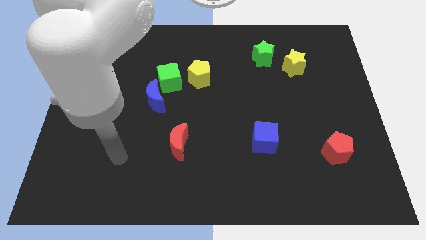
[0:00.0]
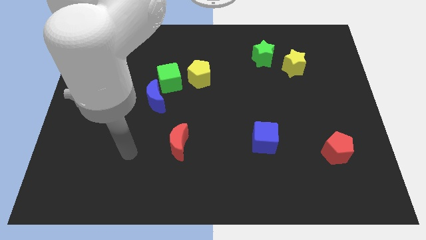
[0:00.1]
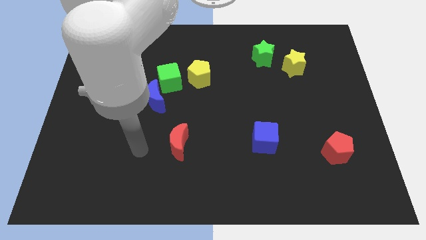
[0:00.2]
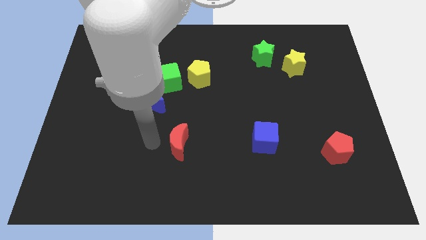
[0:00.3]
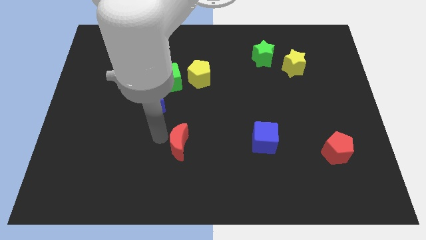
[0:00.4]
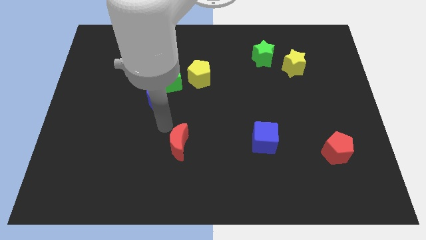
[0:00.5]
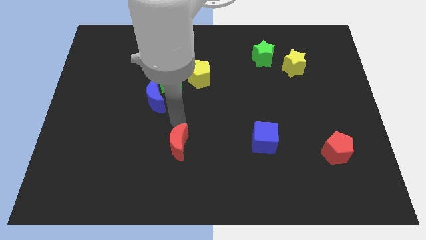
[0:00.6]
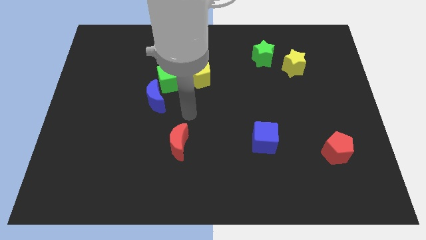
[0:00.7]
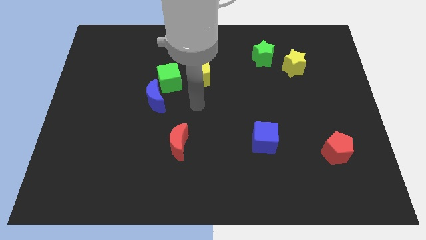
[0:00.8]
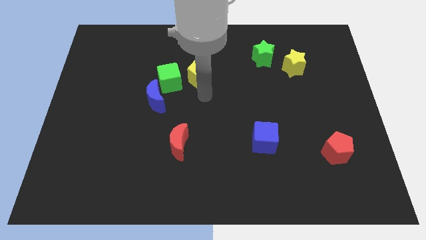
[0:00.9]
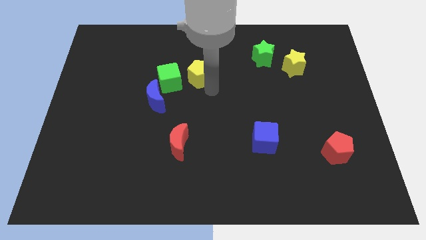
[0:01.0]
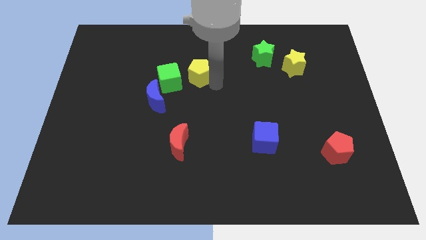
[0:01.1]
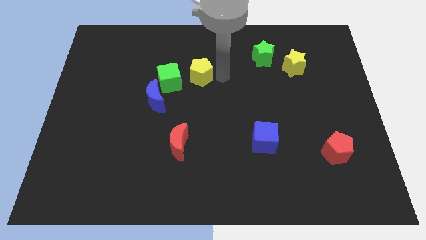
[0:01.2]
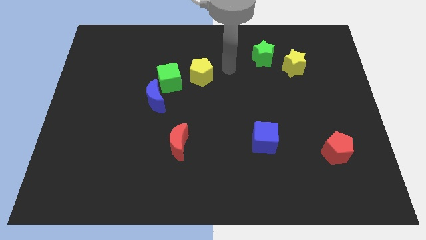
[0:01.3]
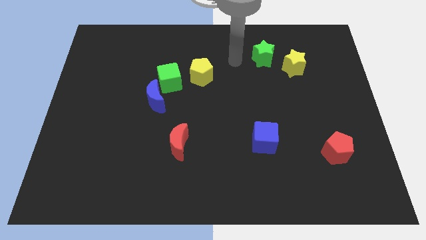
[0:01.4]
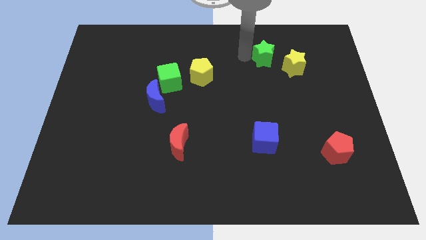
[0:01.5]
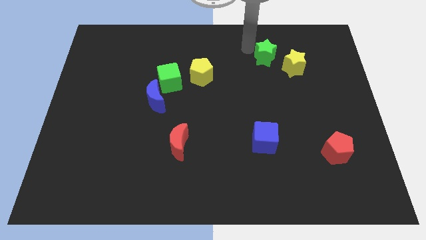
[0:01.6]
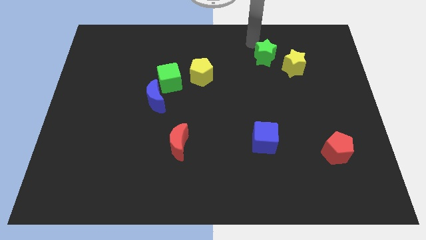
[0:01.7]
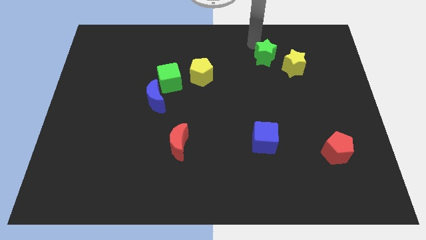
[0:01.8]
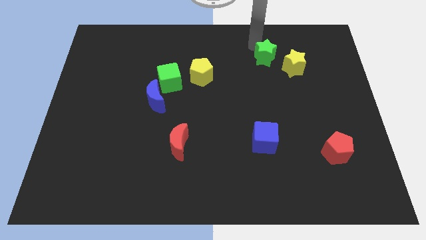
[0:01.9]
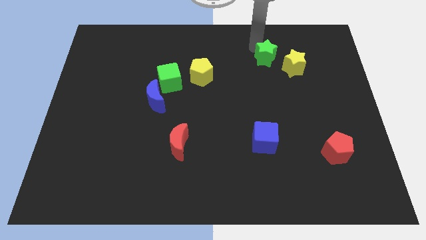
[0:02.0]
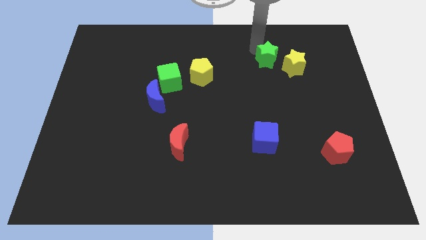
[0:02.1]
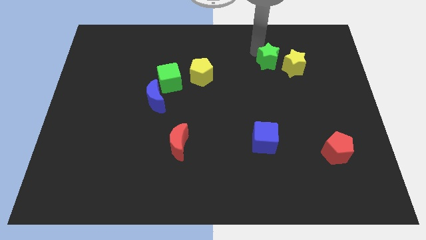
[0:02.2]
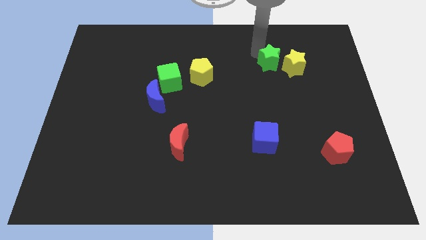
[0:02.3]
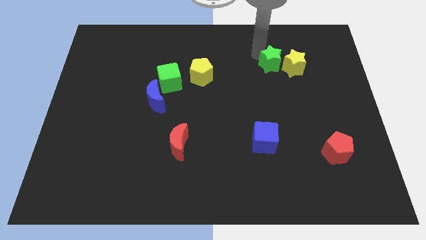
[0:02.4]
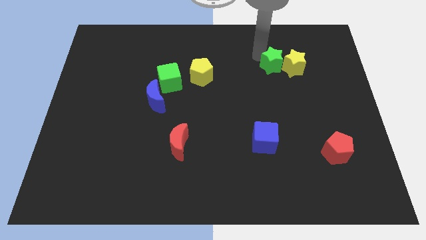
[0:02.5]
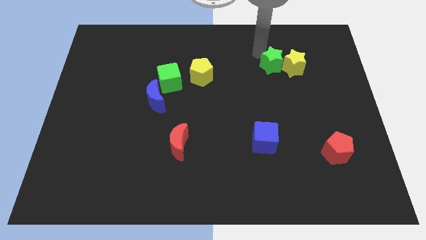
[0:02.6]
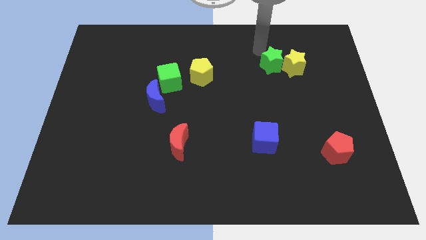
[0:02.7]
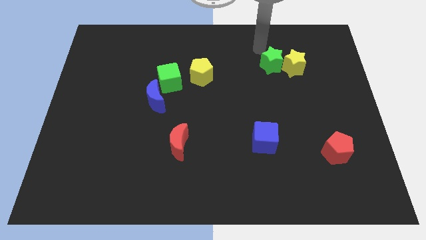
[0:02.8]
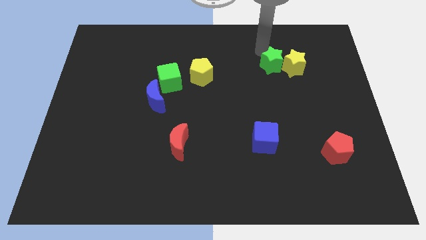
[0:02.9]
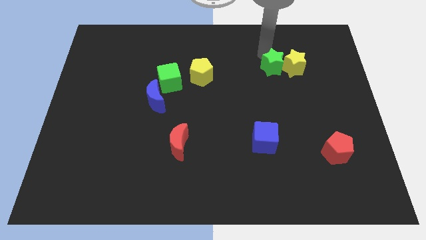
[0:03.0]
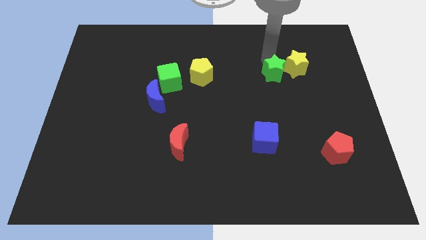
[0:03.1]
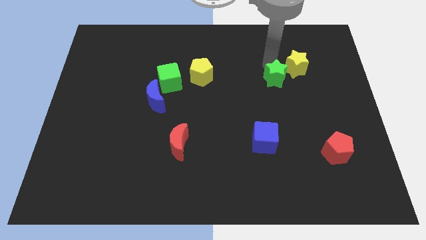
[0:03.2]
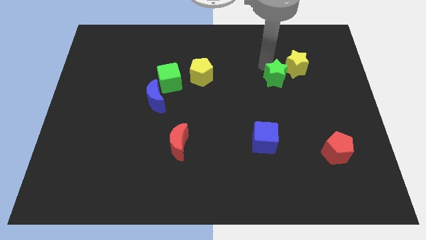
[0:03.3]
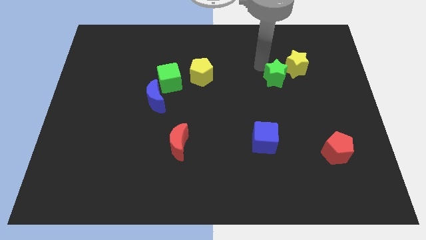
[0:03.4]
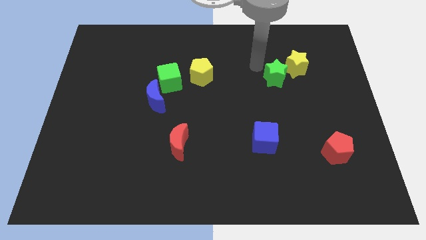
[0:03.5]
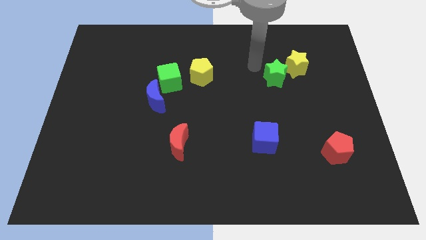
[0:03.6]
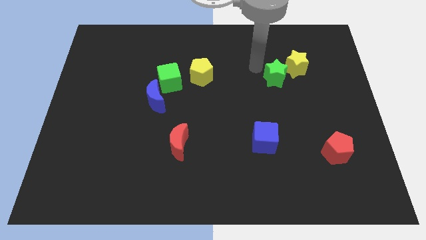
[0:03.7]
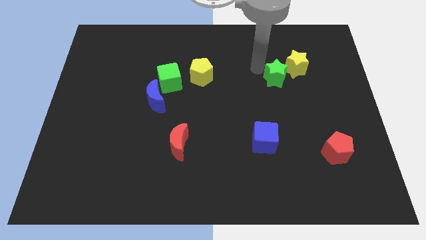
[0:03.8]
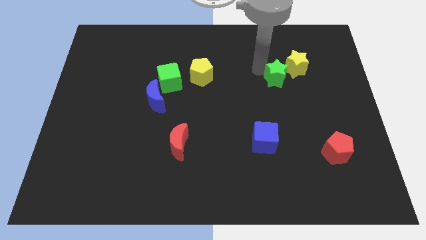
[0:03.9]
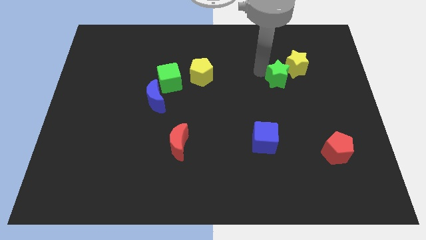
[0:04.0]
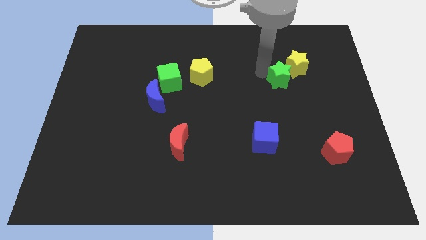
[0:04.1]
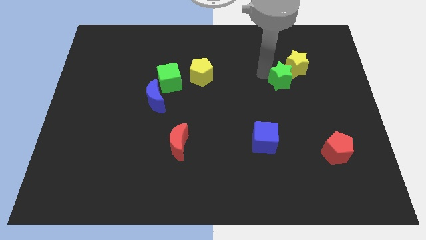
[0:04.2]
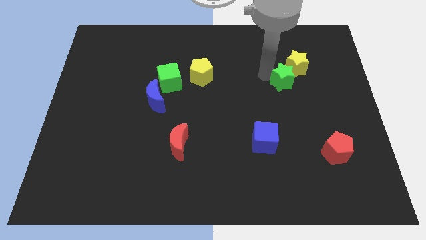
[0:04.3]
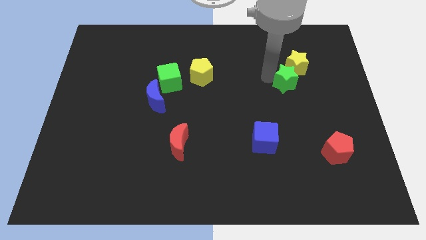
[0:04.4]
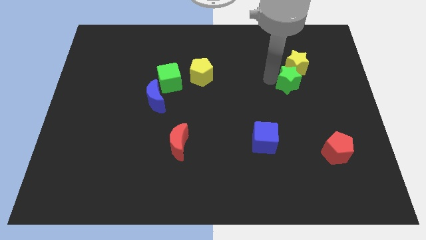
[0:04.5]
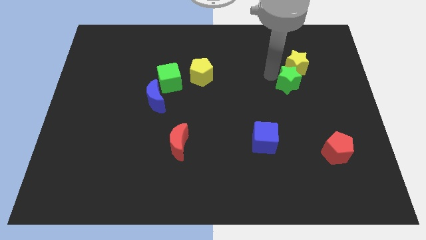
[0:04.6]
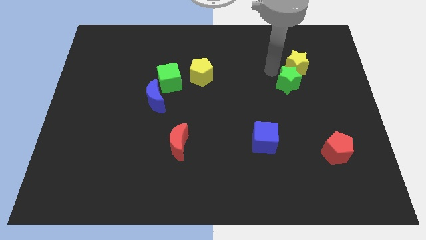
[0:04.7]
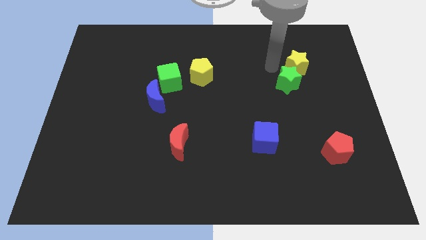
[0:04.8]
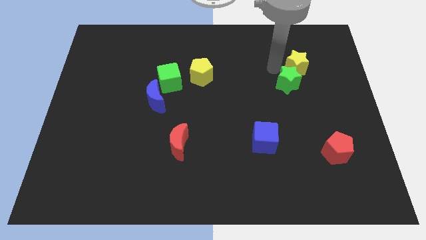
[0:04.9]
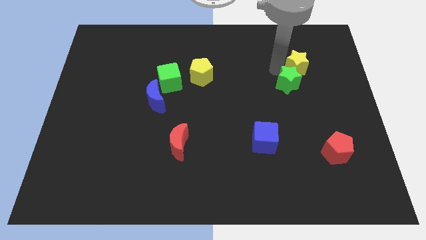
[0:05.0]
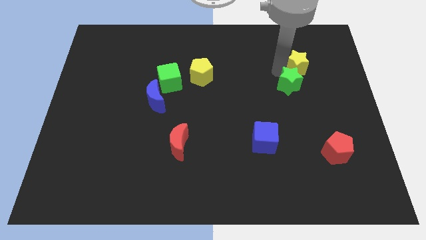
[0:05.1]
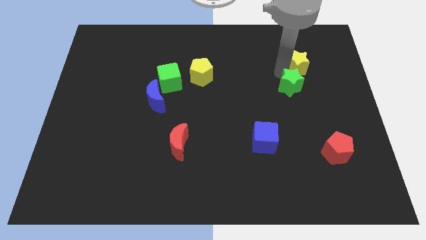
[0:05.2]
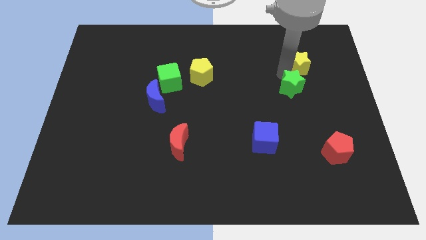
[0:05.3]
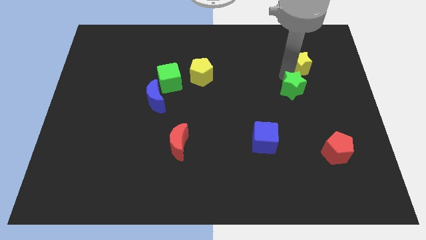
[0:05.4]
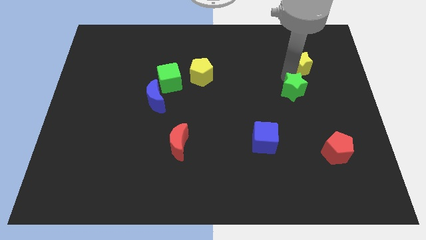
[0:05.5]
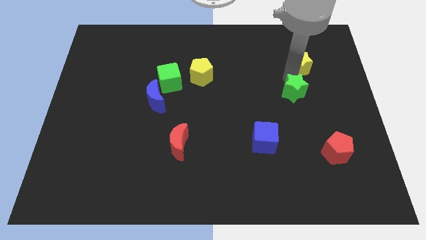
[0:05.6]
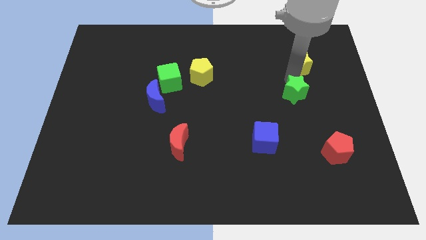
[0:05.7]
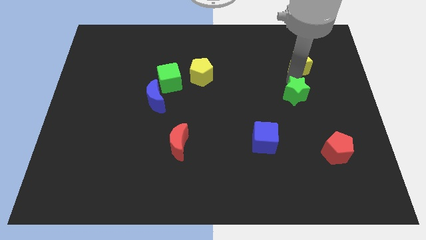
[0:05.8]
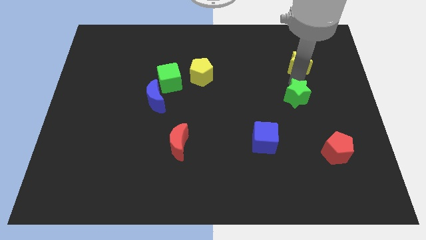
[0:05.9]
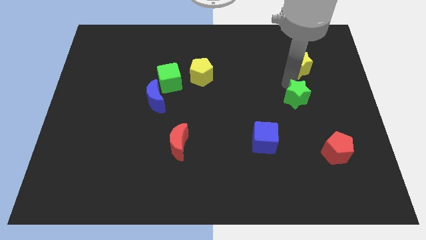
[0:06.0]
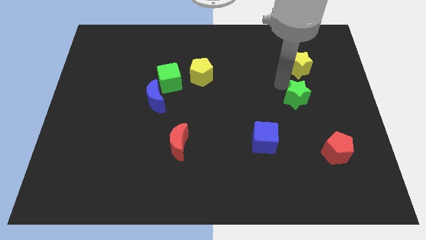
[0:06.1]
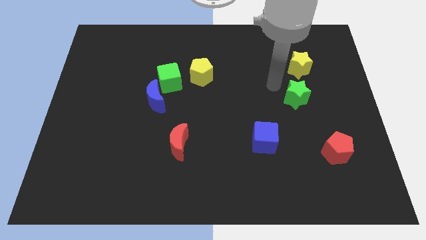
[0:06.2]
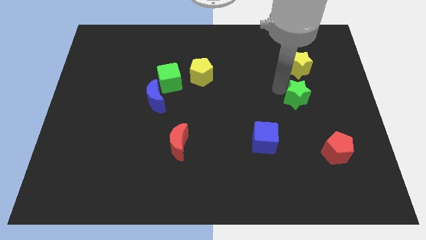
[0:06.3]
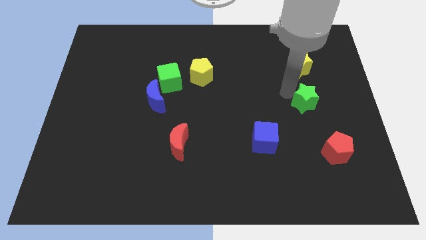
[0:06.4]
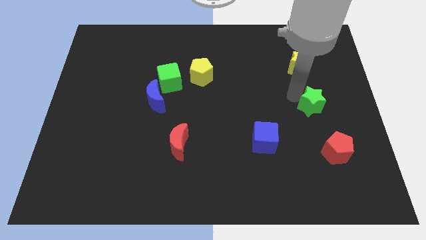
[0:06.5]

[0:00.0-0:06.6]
slide the green star above the red pentagon

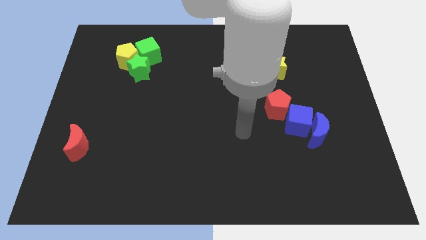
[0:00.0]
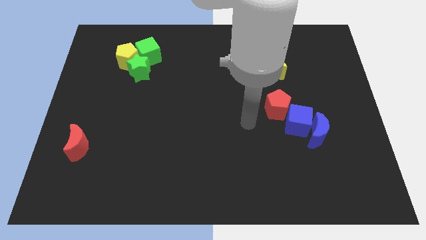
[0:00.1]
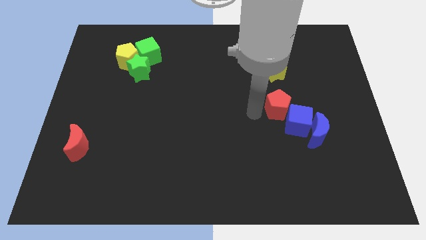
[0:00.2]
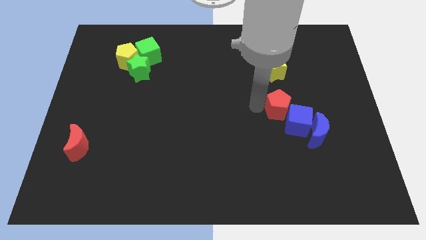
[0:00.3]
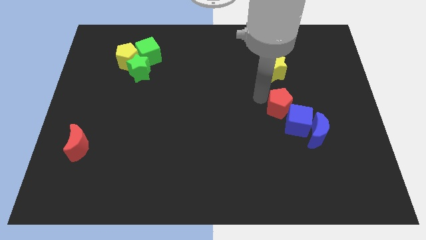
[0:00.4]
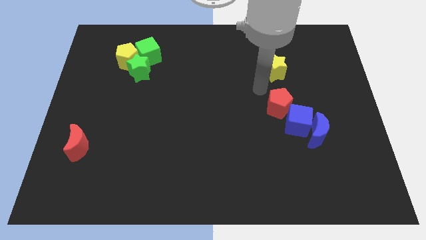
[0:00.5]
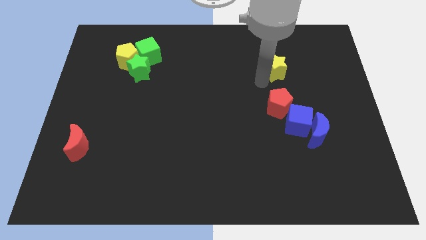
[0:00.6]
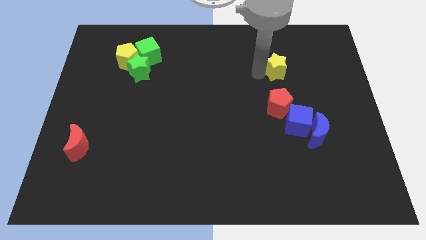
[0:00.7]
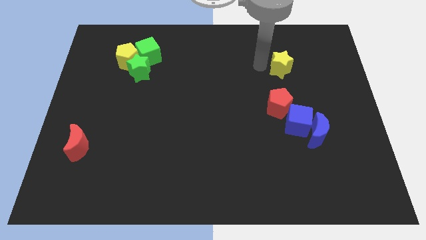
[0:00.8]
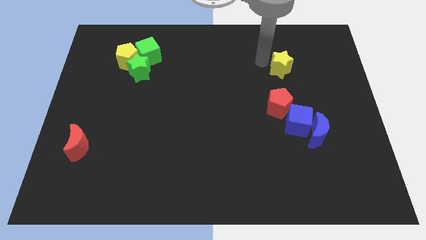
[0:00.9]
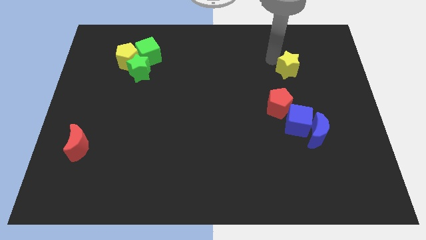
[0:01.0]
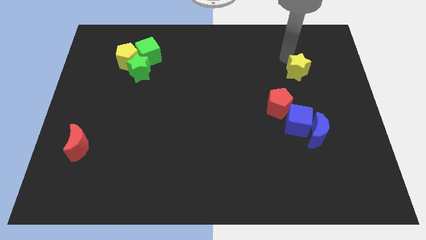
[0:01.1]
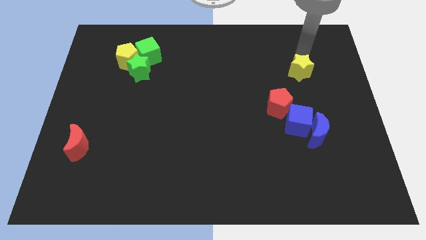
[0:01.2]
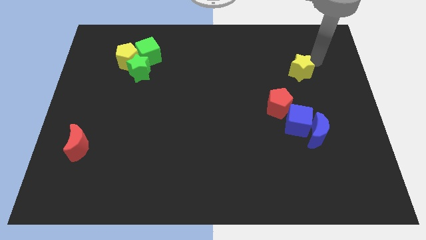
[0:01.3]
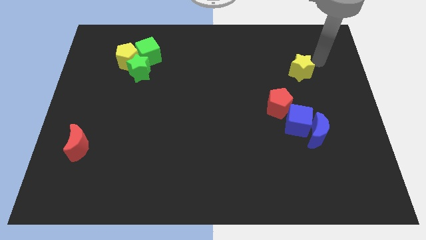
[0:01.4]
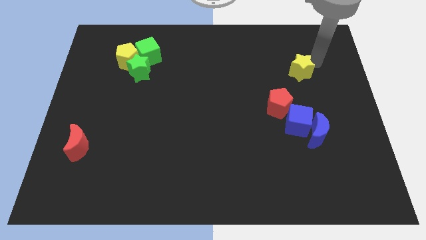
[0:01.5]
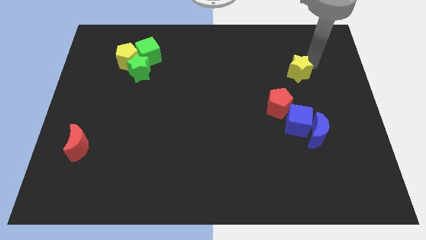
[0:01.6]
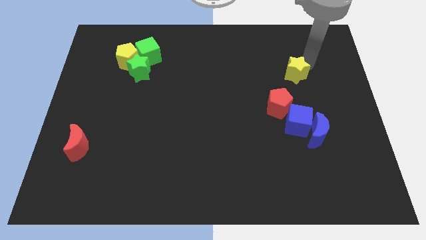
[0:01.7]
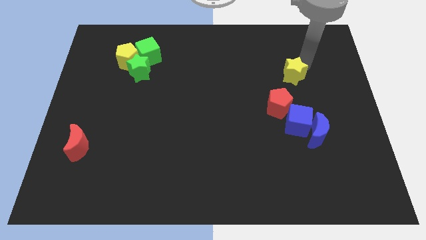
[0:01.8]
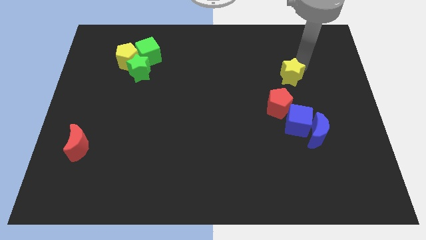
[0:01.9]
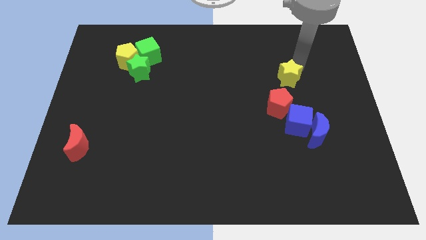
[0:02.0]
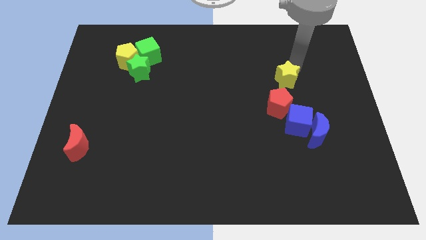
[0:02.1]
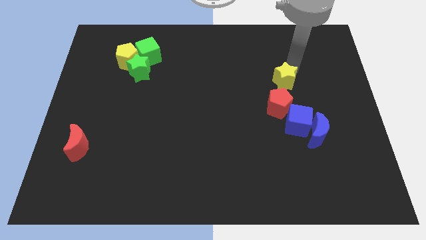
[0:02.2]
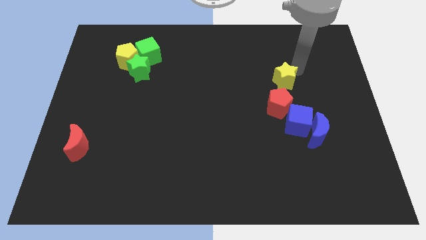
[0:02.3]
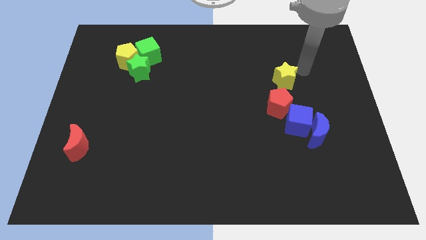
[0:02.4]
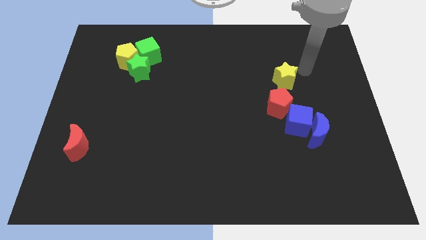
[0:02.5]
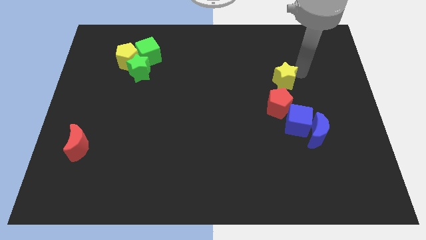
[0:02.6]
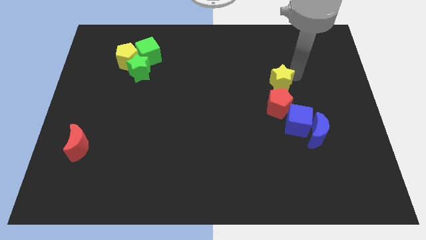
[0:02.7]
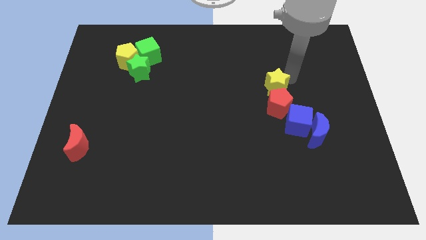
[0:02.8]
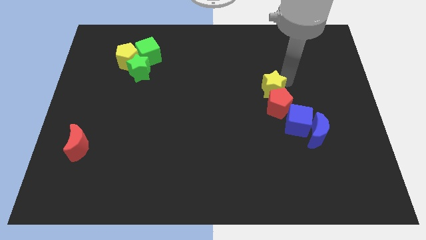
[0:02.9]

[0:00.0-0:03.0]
put the yellow star diagonally up and to the left of the blue cube
